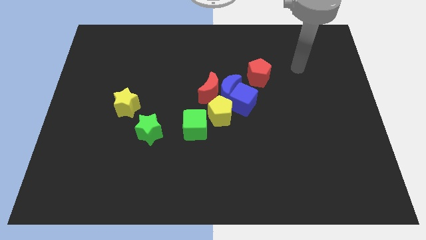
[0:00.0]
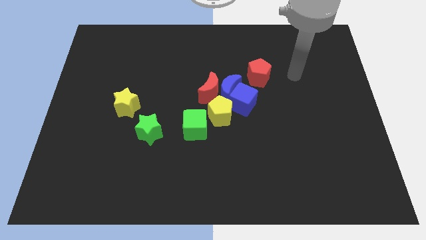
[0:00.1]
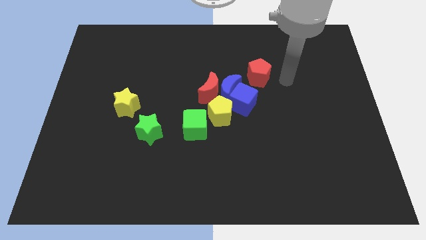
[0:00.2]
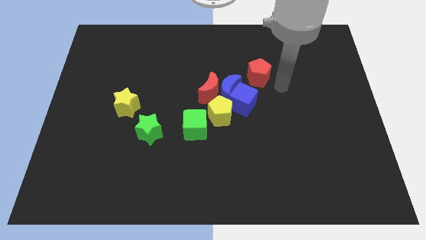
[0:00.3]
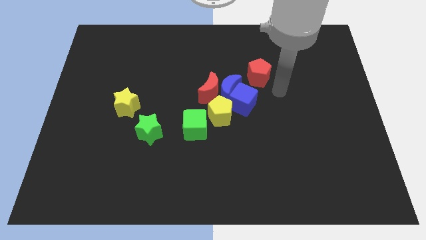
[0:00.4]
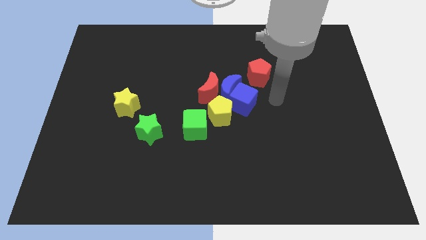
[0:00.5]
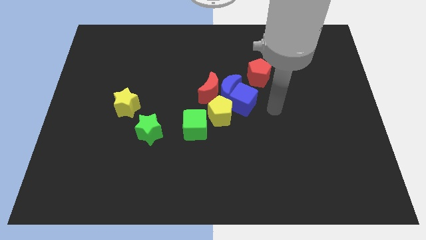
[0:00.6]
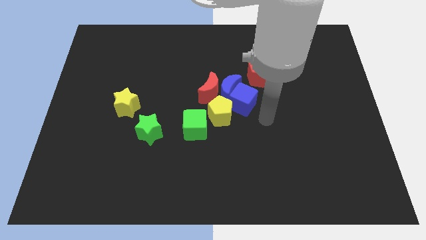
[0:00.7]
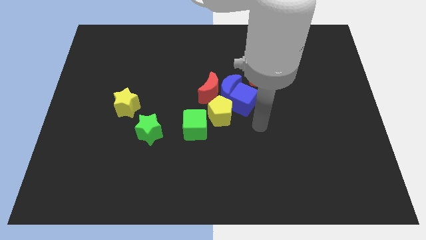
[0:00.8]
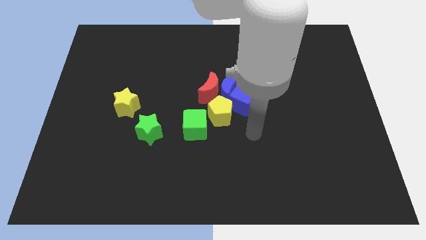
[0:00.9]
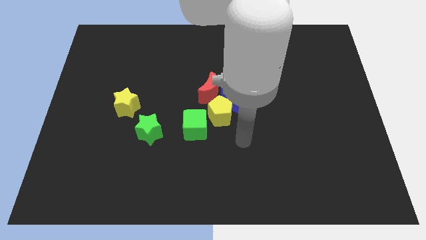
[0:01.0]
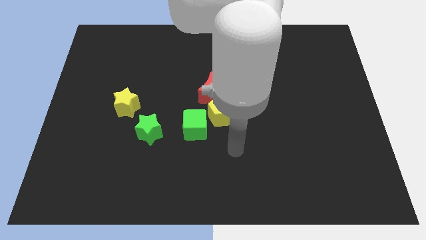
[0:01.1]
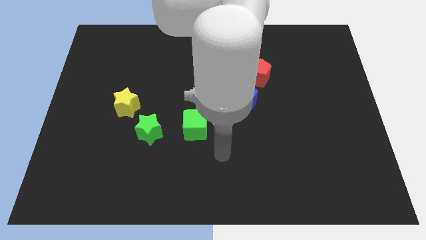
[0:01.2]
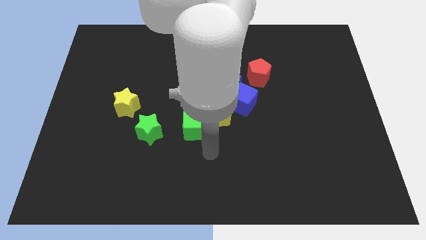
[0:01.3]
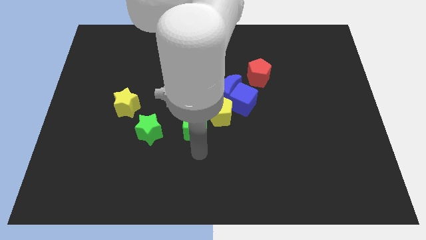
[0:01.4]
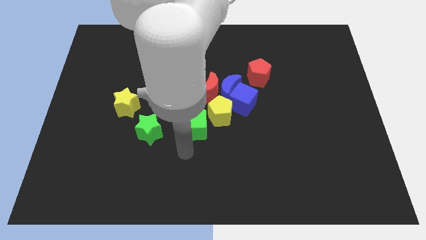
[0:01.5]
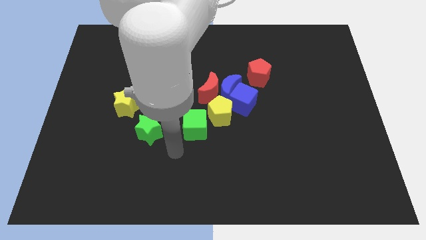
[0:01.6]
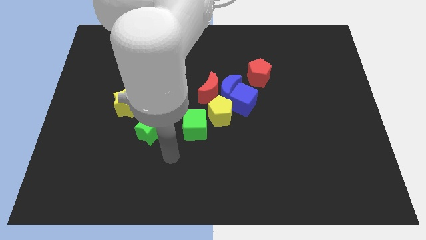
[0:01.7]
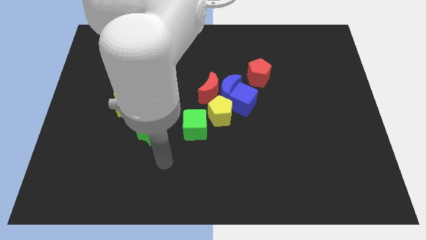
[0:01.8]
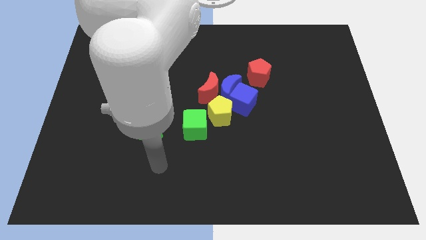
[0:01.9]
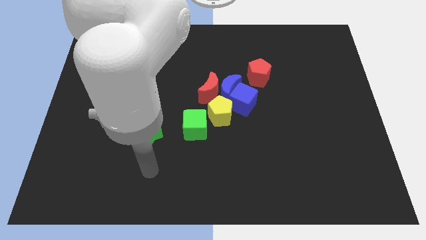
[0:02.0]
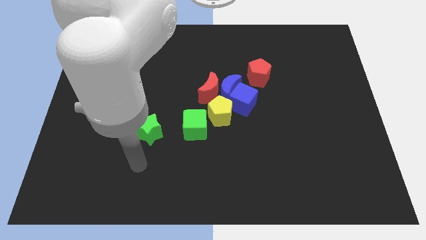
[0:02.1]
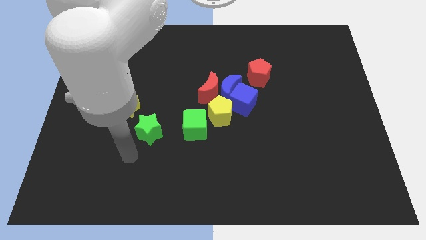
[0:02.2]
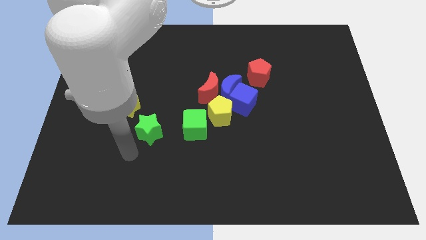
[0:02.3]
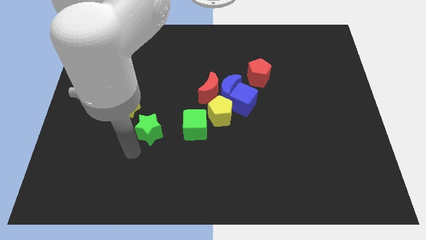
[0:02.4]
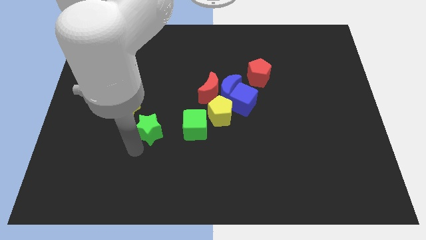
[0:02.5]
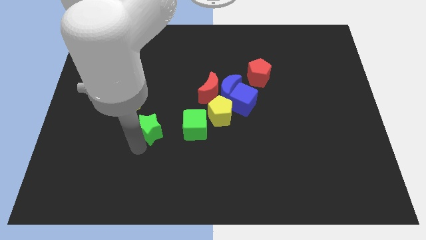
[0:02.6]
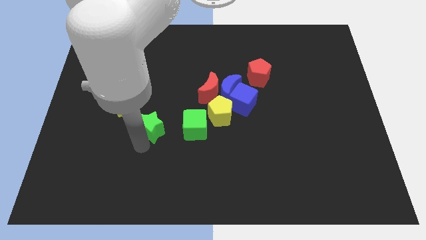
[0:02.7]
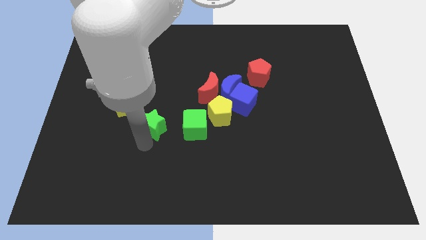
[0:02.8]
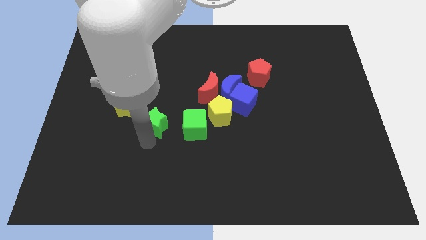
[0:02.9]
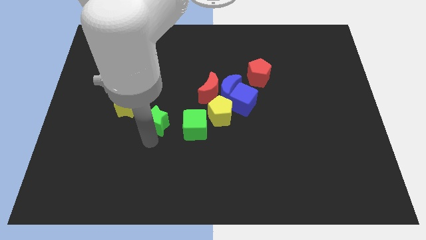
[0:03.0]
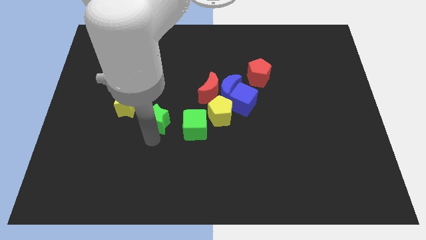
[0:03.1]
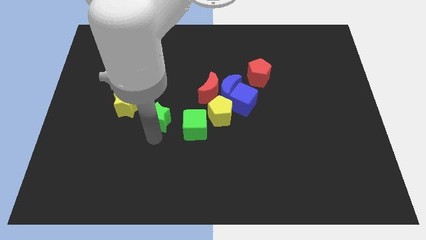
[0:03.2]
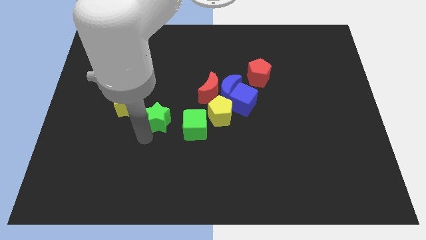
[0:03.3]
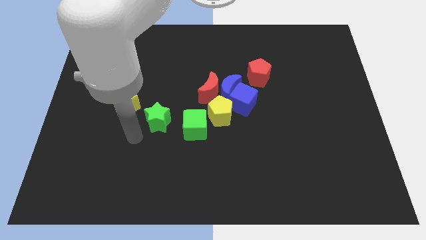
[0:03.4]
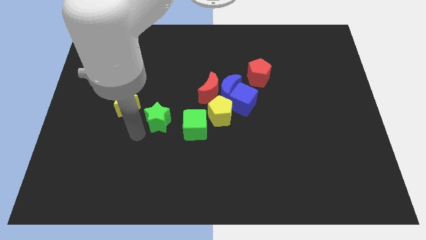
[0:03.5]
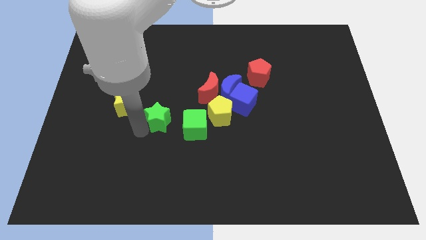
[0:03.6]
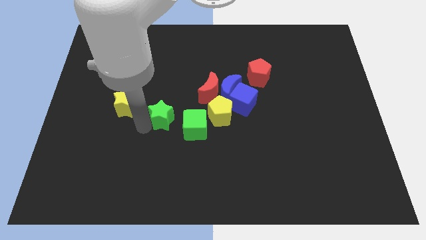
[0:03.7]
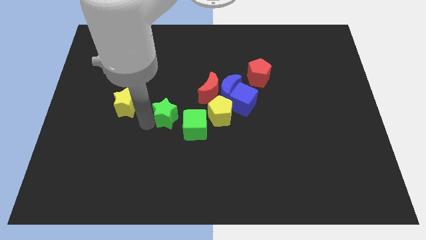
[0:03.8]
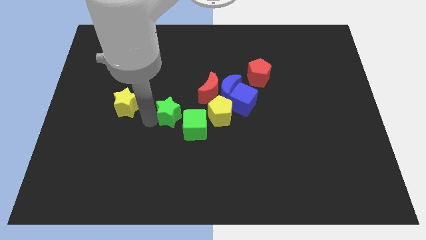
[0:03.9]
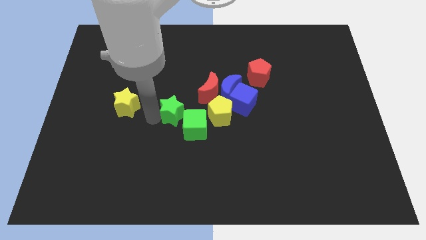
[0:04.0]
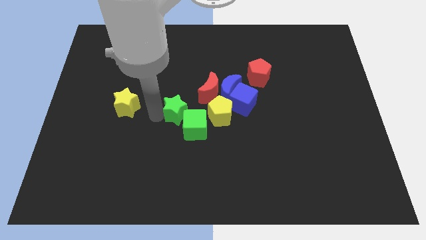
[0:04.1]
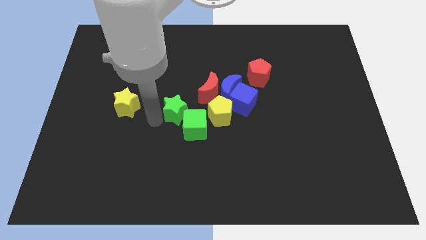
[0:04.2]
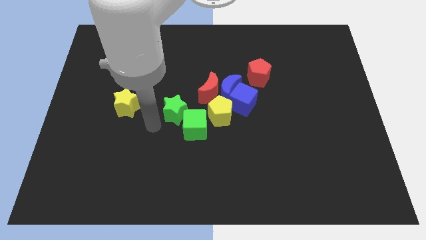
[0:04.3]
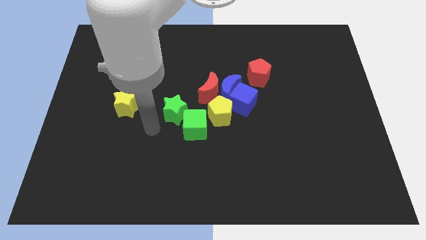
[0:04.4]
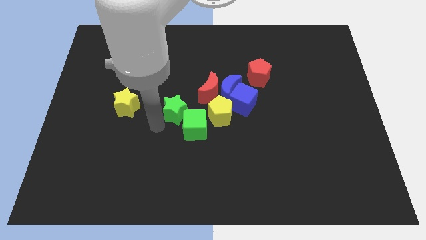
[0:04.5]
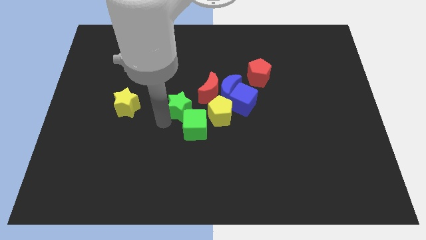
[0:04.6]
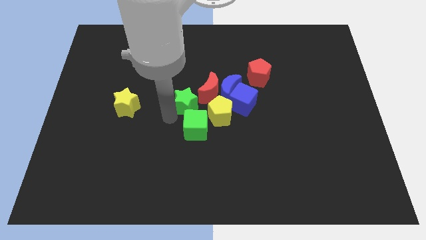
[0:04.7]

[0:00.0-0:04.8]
slide the green star diagonally up and to the left of the yellow pentagon

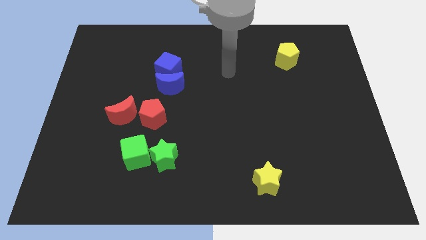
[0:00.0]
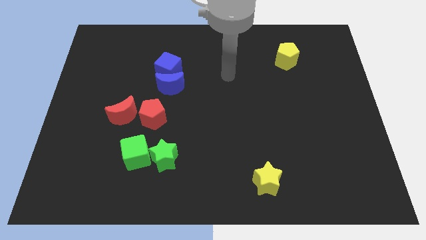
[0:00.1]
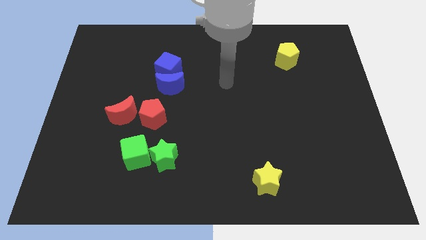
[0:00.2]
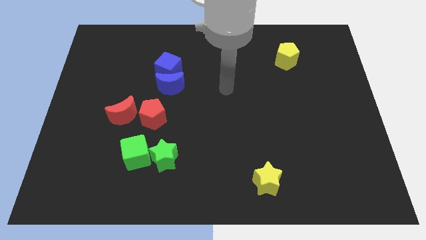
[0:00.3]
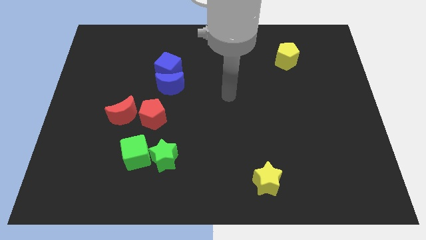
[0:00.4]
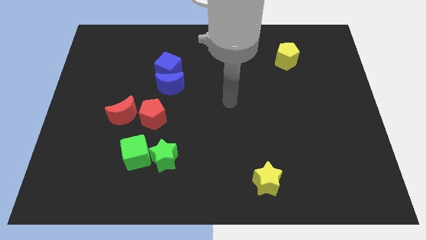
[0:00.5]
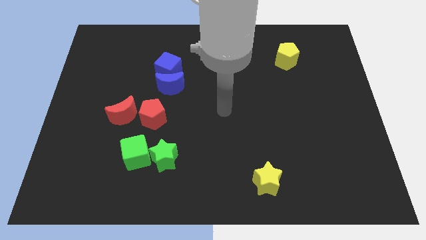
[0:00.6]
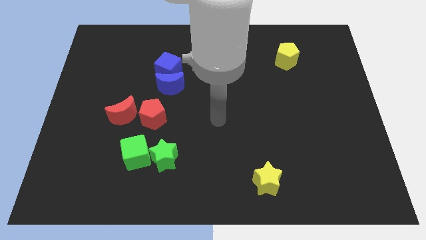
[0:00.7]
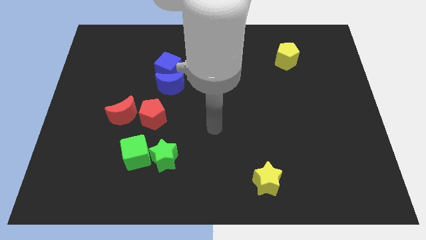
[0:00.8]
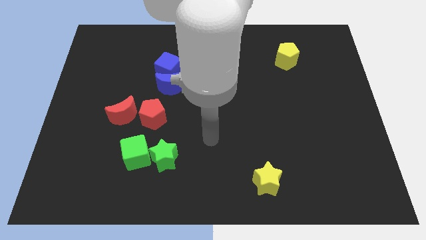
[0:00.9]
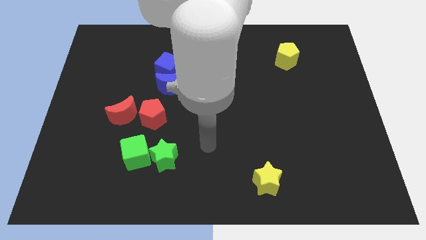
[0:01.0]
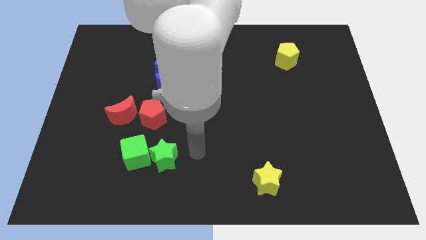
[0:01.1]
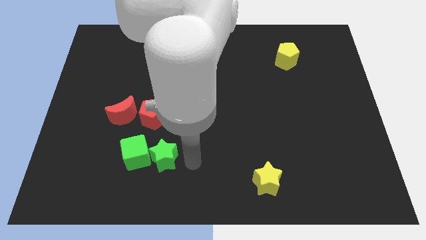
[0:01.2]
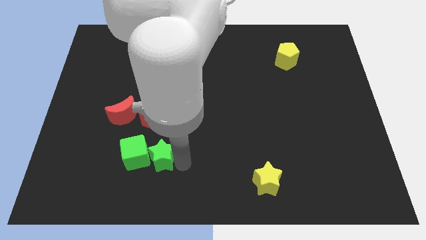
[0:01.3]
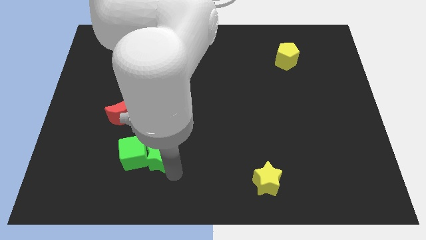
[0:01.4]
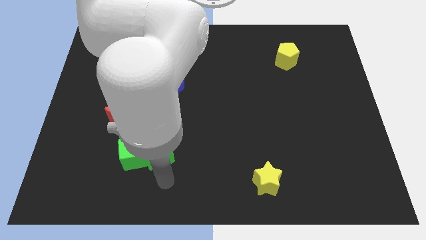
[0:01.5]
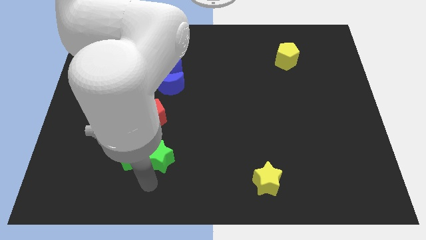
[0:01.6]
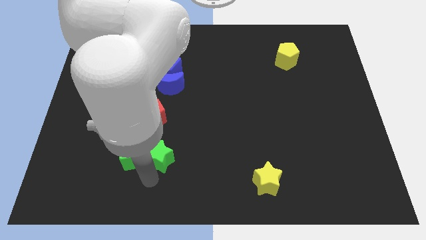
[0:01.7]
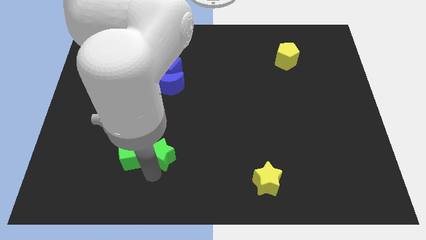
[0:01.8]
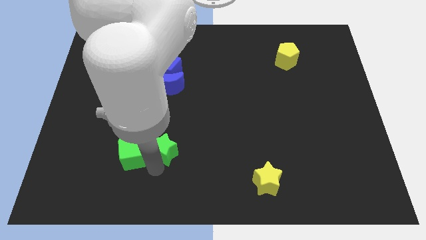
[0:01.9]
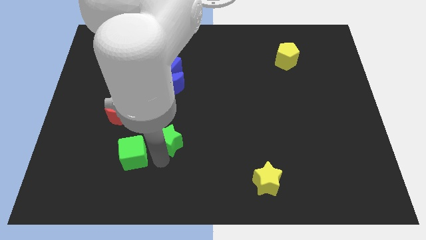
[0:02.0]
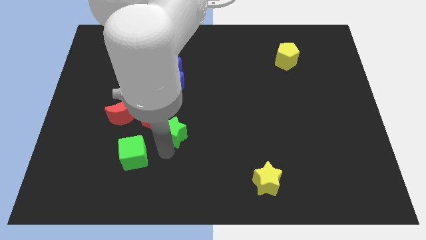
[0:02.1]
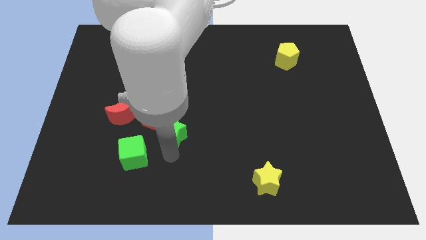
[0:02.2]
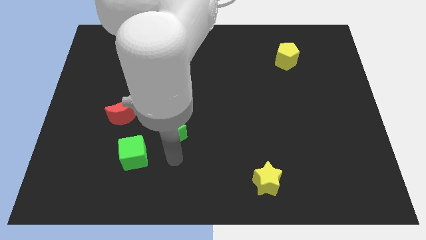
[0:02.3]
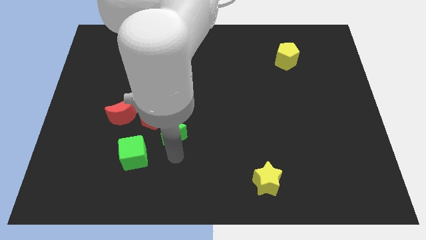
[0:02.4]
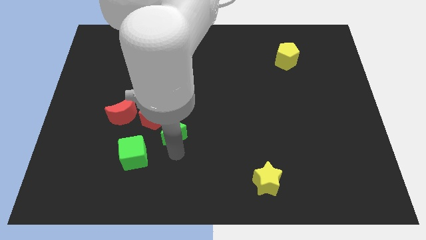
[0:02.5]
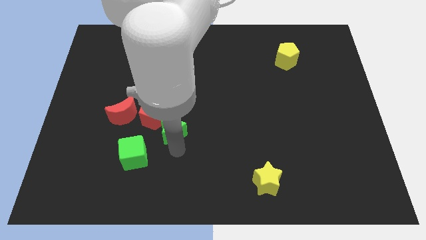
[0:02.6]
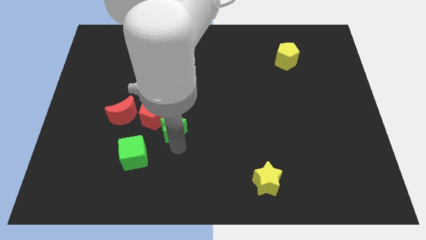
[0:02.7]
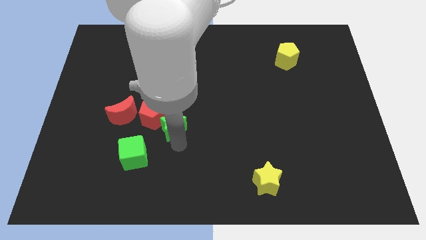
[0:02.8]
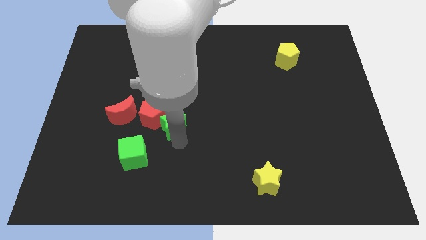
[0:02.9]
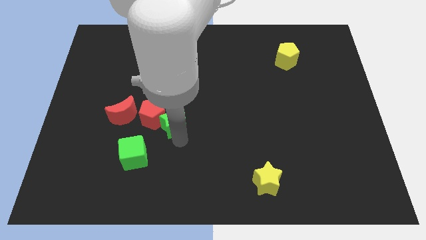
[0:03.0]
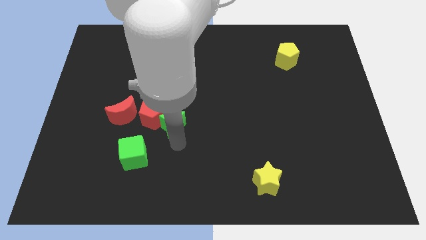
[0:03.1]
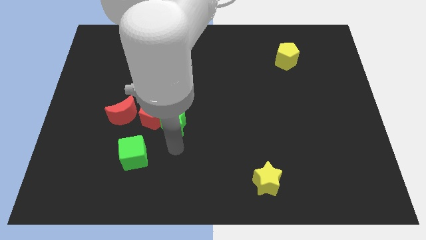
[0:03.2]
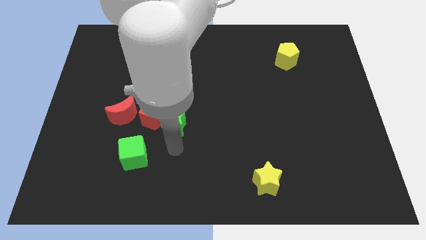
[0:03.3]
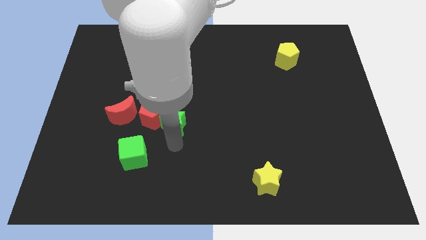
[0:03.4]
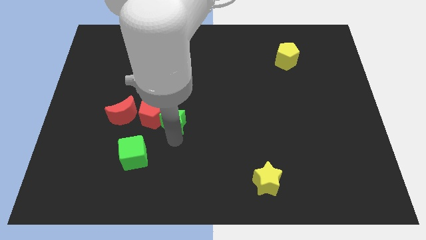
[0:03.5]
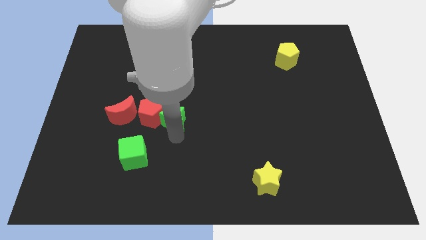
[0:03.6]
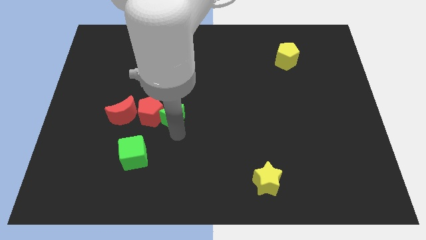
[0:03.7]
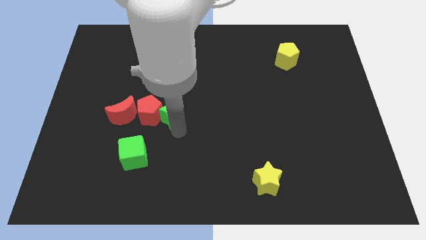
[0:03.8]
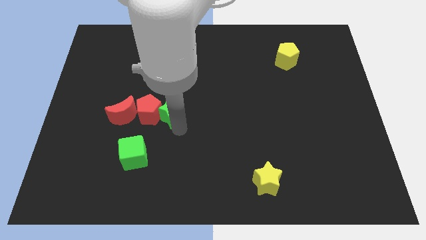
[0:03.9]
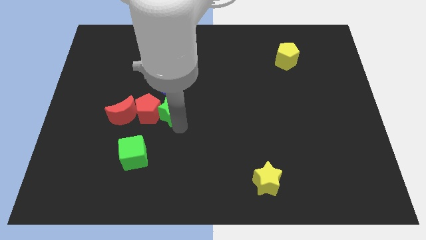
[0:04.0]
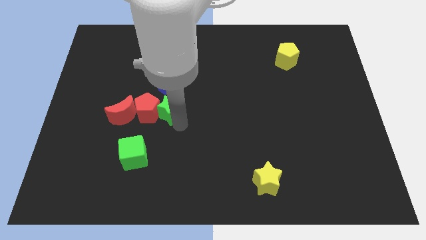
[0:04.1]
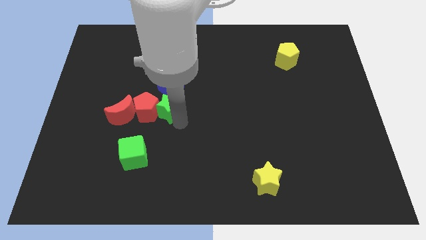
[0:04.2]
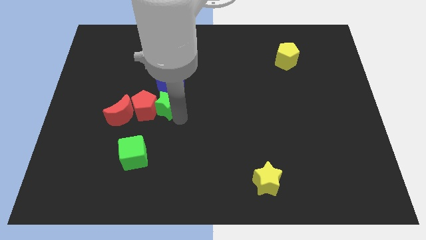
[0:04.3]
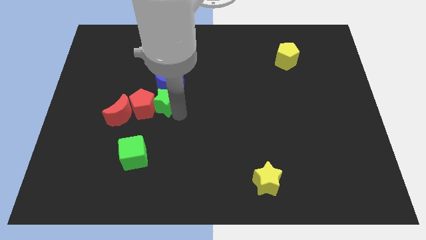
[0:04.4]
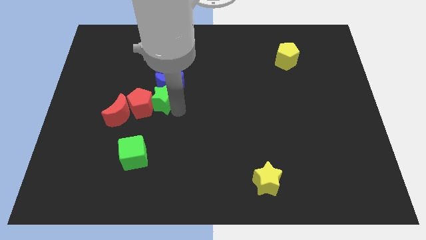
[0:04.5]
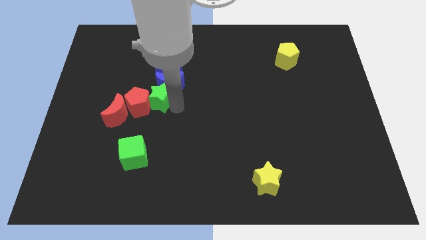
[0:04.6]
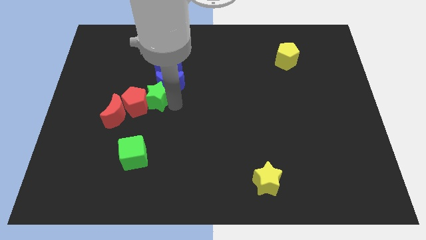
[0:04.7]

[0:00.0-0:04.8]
push the green star left of the blue moon
